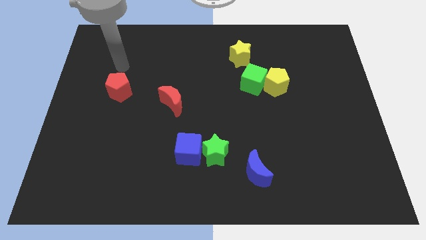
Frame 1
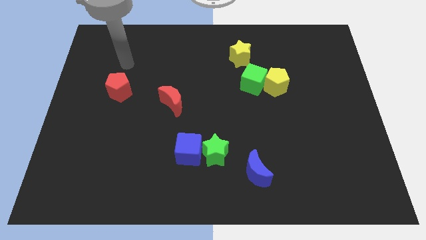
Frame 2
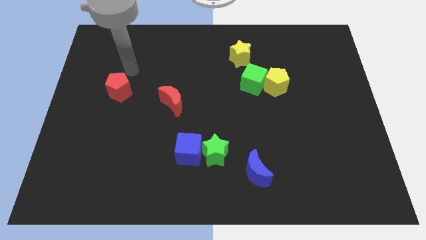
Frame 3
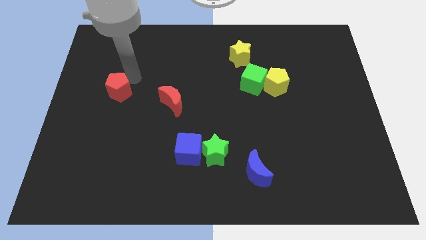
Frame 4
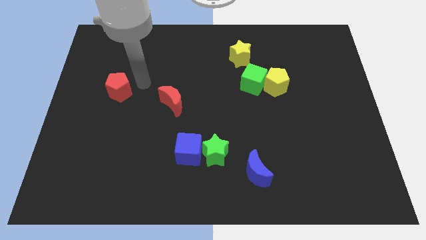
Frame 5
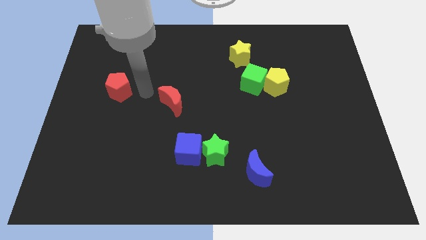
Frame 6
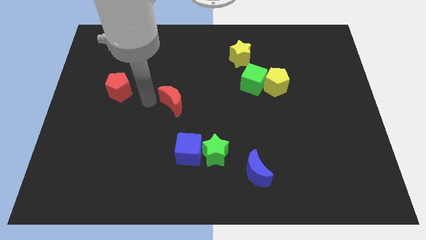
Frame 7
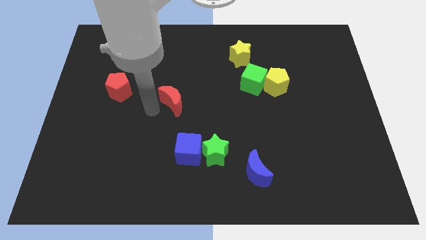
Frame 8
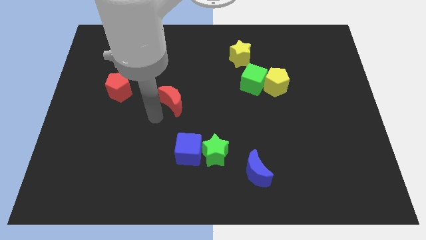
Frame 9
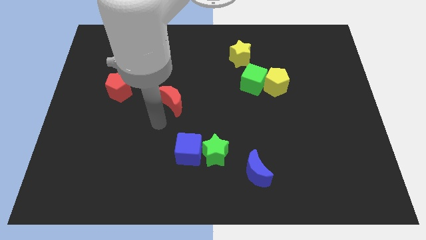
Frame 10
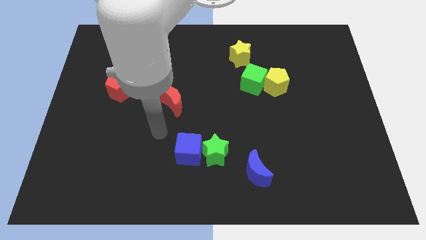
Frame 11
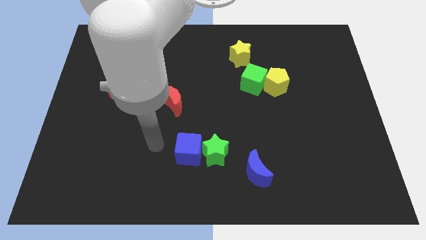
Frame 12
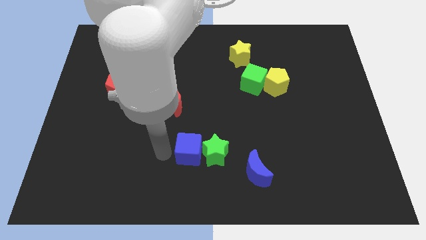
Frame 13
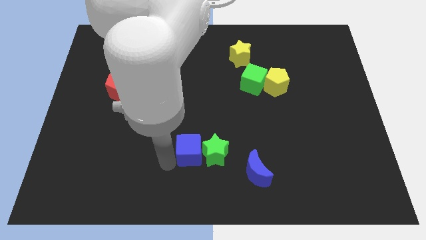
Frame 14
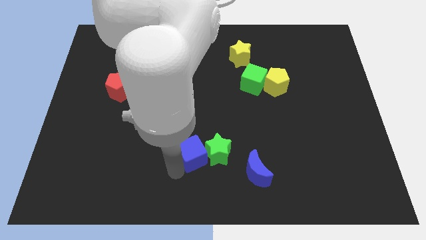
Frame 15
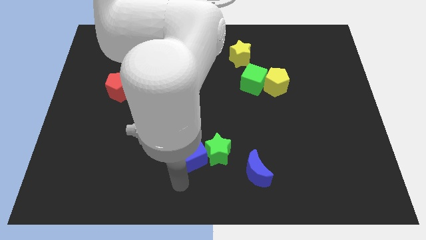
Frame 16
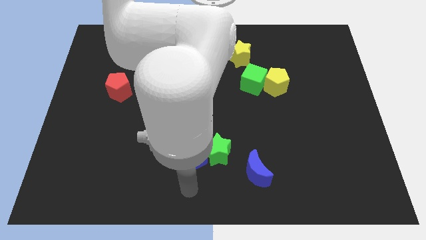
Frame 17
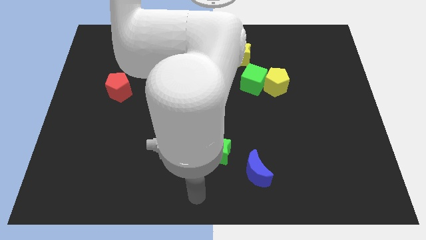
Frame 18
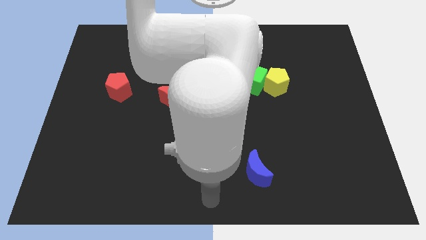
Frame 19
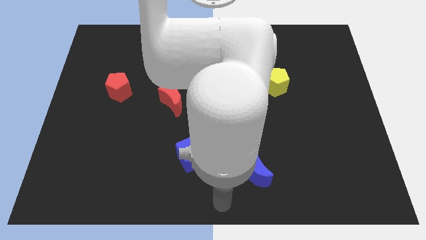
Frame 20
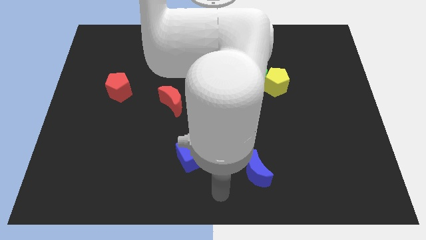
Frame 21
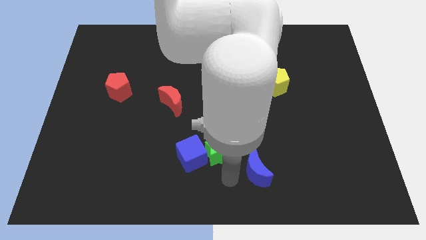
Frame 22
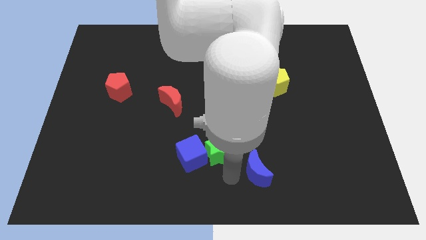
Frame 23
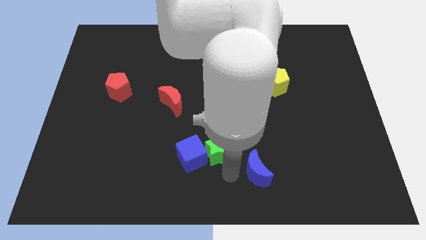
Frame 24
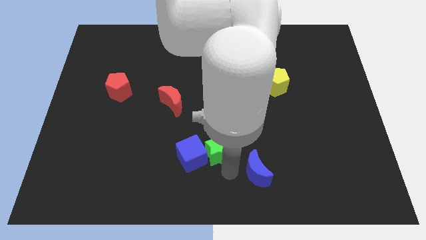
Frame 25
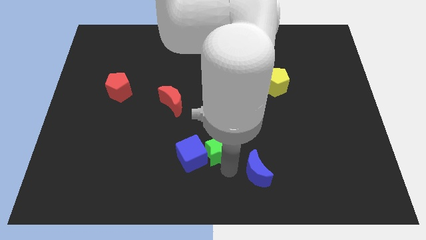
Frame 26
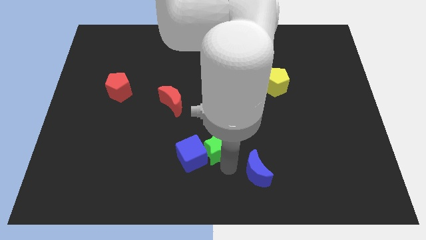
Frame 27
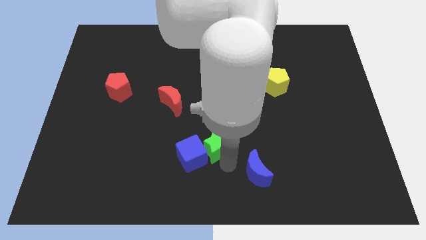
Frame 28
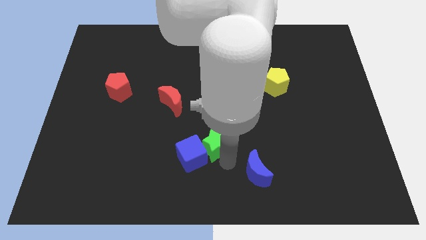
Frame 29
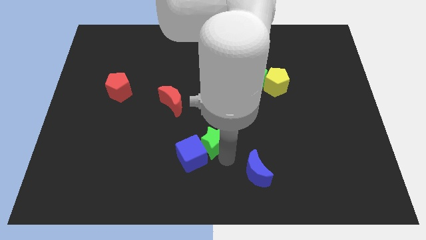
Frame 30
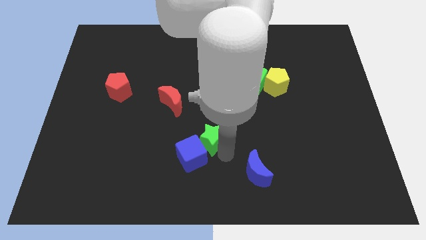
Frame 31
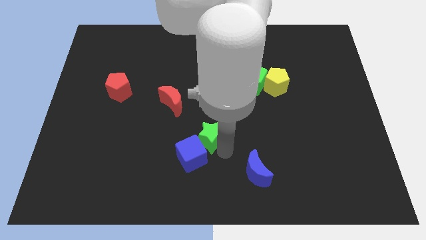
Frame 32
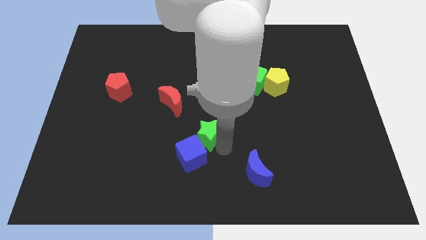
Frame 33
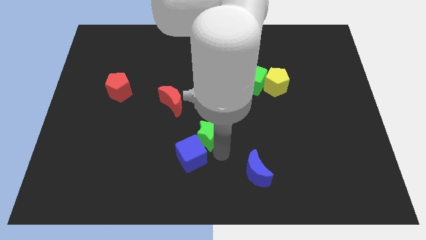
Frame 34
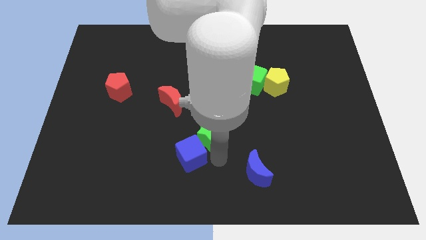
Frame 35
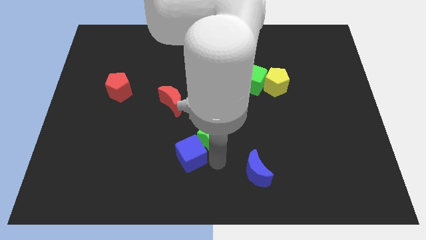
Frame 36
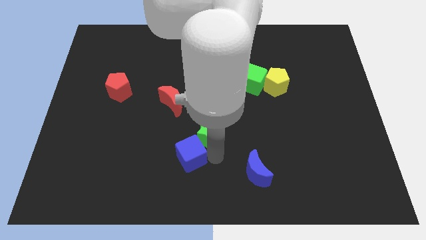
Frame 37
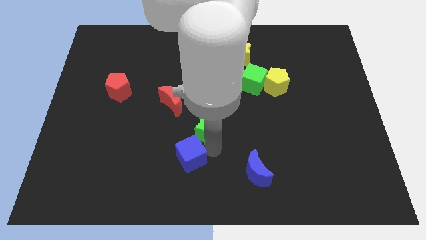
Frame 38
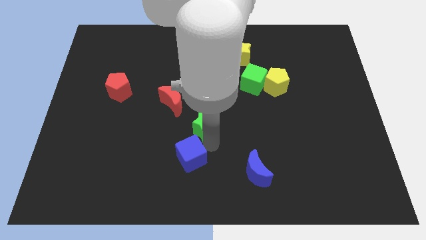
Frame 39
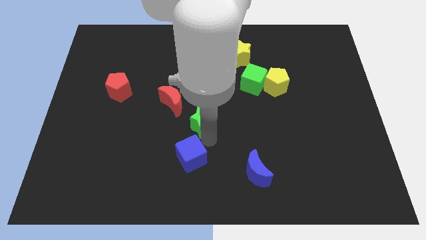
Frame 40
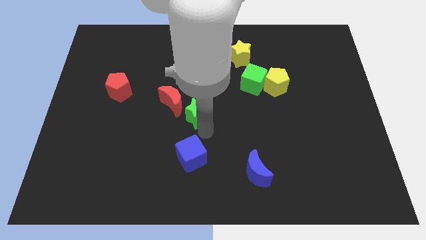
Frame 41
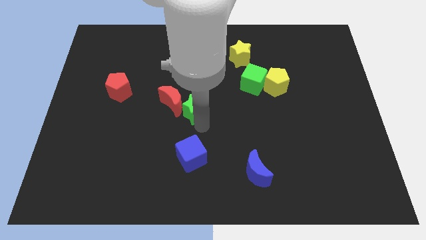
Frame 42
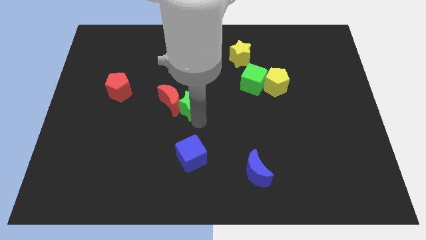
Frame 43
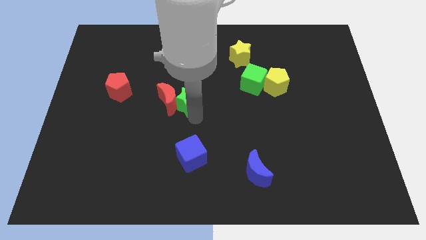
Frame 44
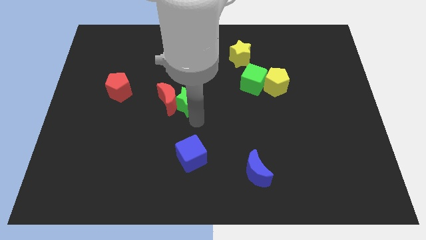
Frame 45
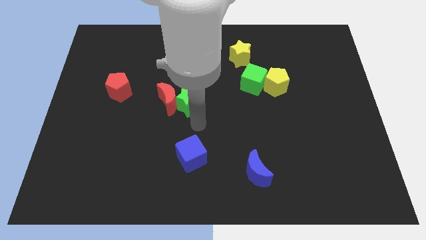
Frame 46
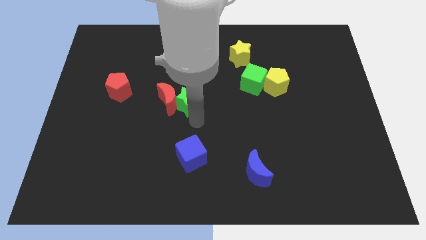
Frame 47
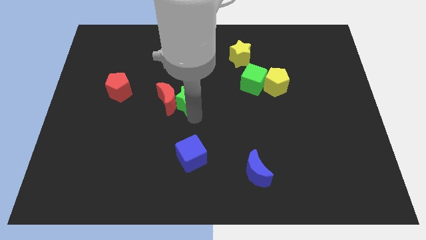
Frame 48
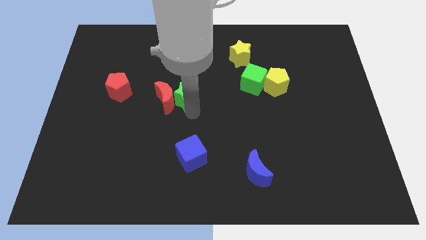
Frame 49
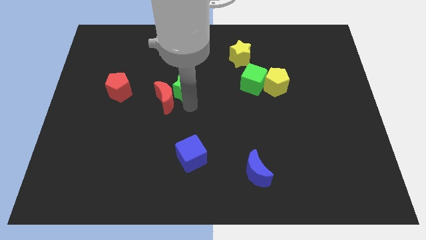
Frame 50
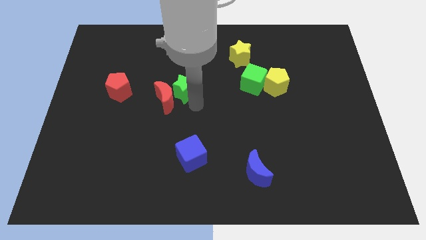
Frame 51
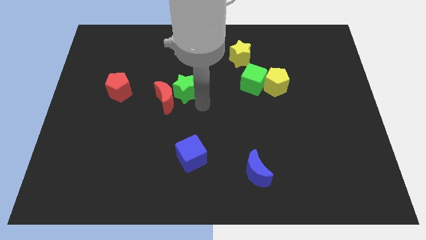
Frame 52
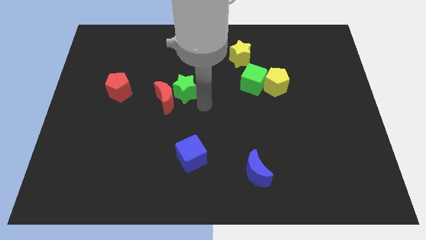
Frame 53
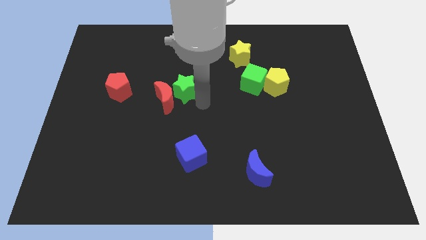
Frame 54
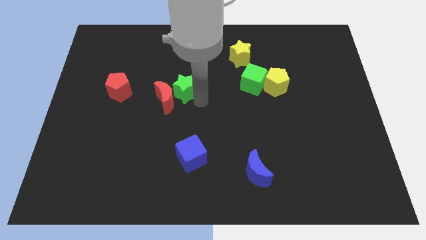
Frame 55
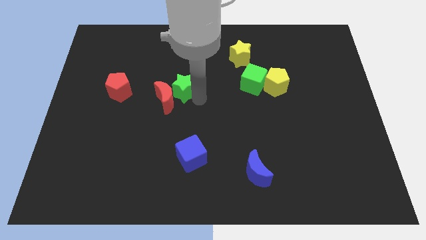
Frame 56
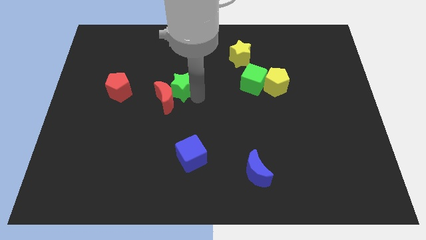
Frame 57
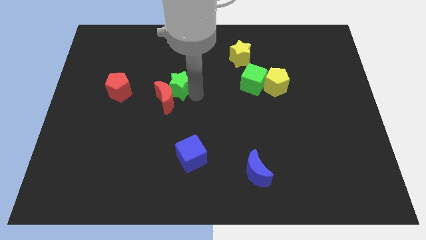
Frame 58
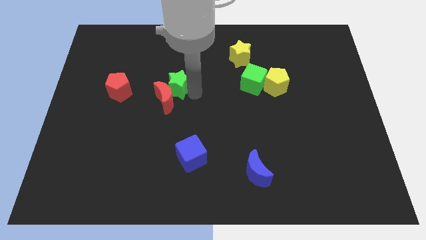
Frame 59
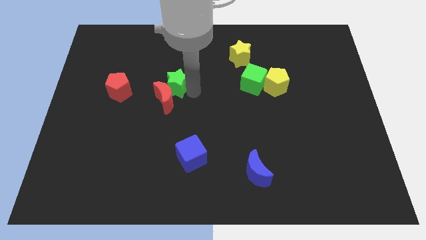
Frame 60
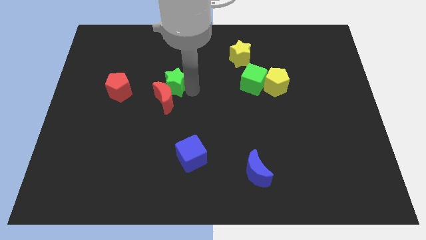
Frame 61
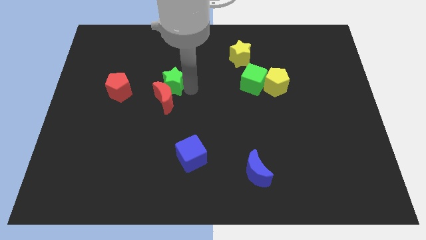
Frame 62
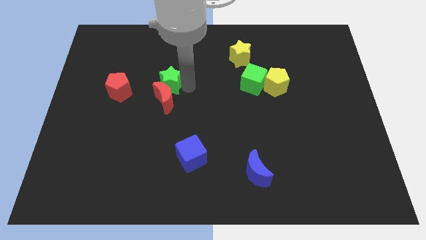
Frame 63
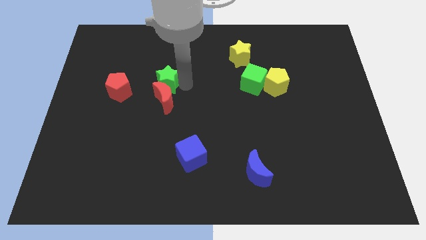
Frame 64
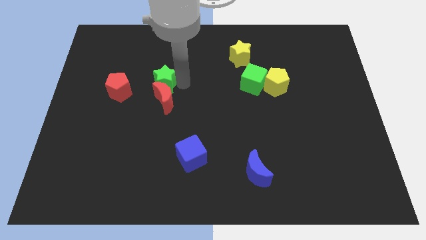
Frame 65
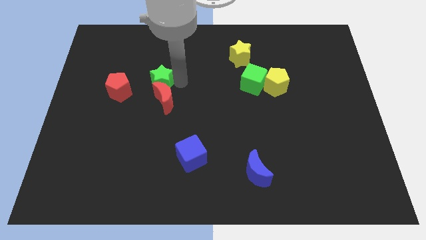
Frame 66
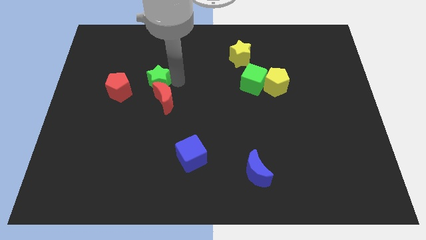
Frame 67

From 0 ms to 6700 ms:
push the green star to the top right of the red pentagon

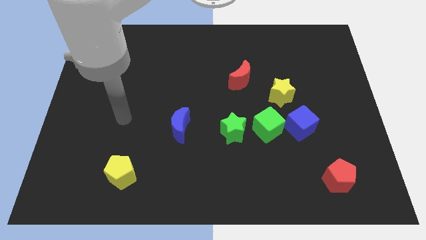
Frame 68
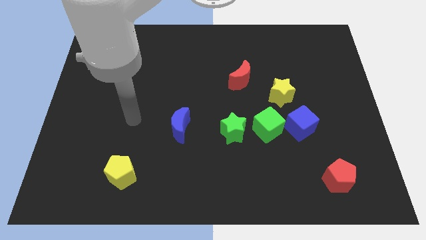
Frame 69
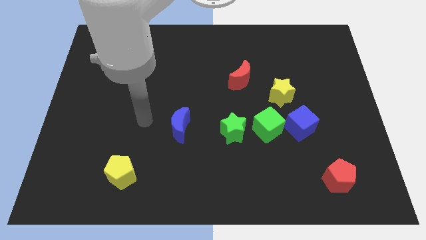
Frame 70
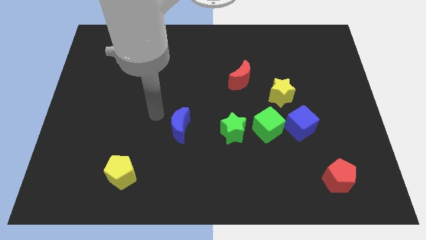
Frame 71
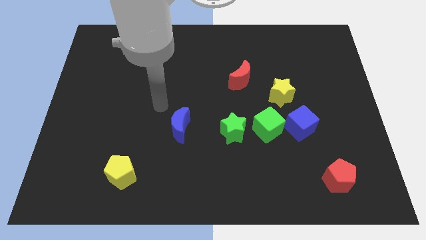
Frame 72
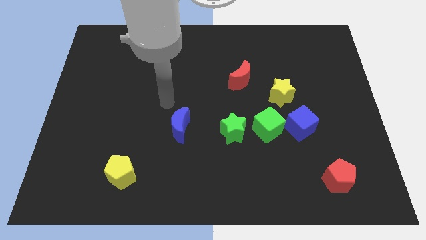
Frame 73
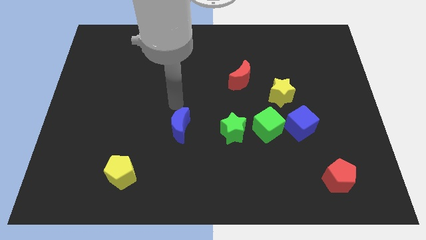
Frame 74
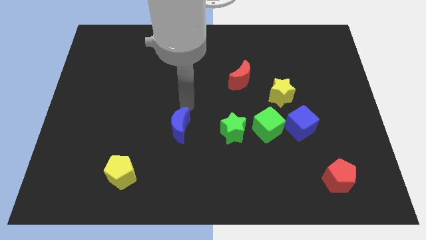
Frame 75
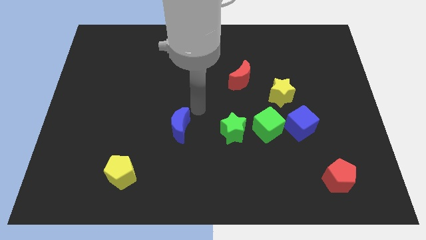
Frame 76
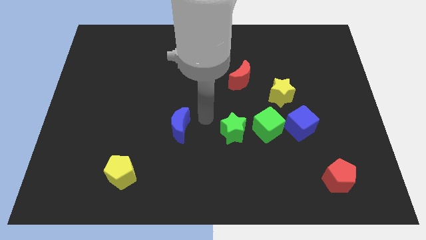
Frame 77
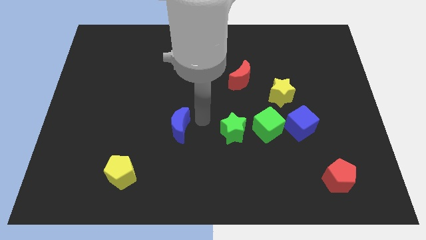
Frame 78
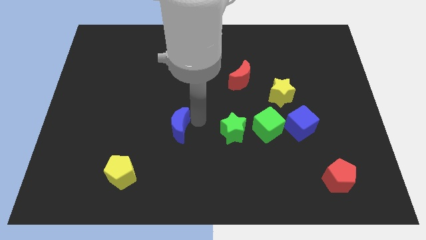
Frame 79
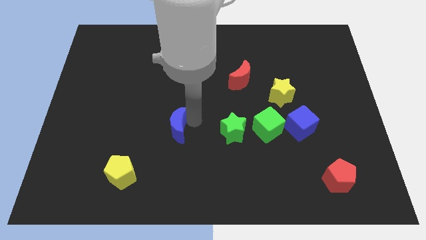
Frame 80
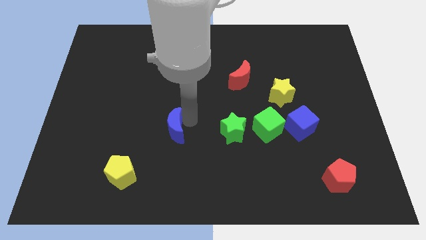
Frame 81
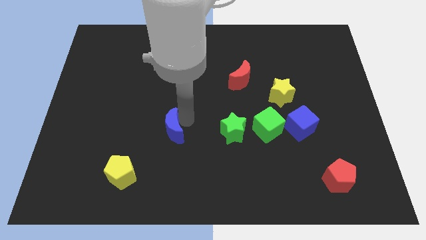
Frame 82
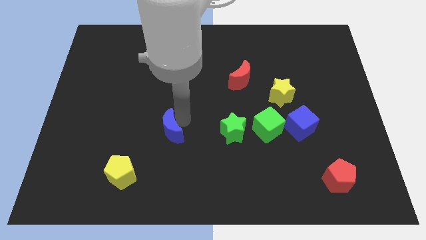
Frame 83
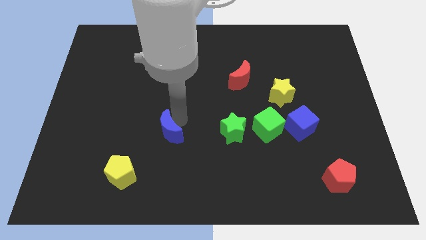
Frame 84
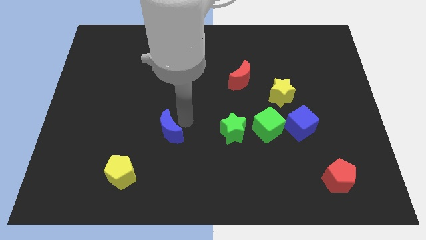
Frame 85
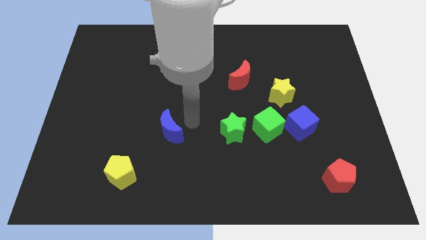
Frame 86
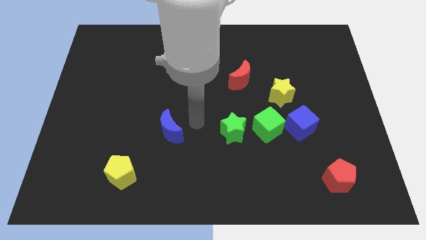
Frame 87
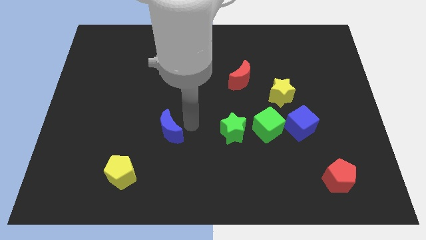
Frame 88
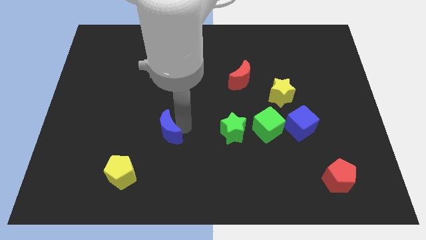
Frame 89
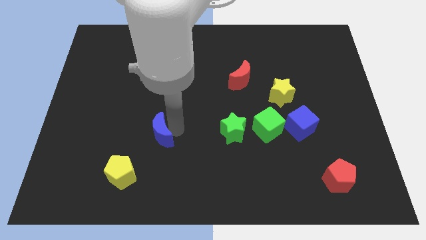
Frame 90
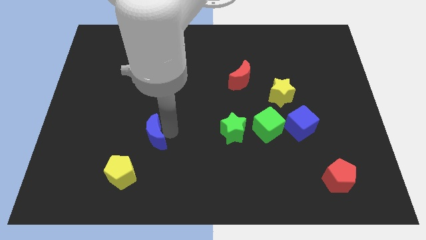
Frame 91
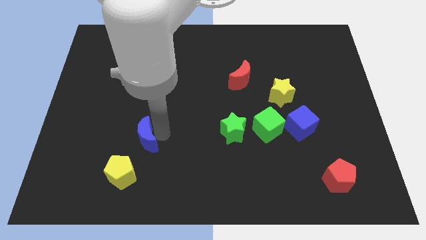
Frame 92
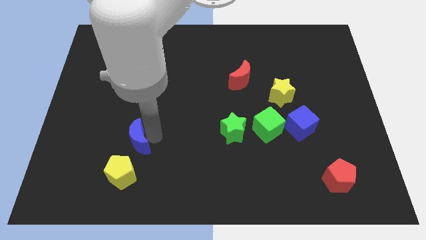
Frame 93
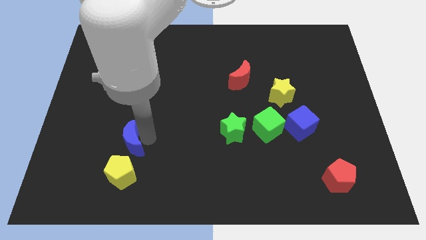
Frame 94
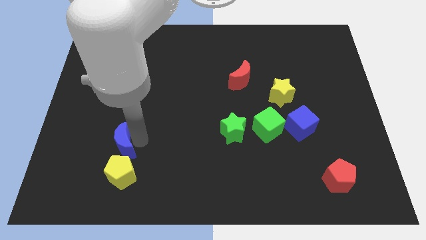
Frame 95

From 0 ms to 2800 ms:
move the blue moon to the top left side of the yellow pentagon
